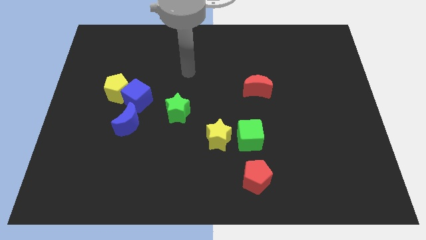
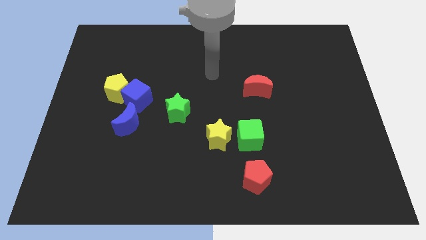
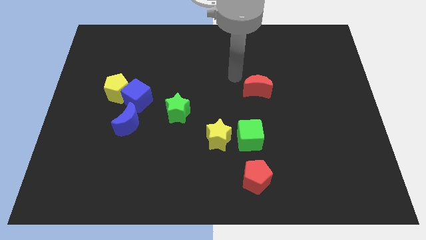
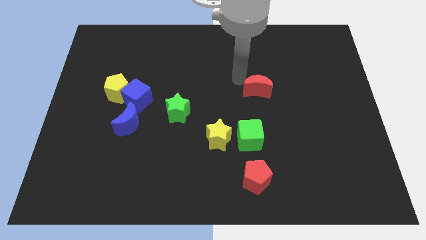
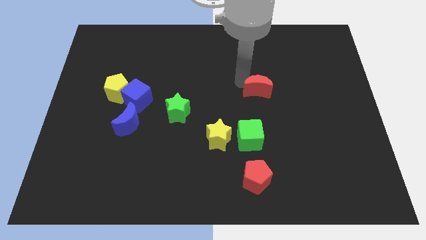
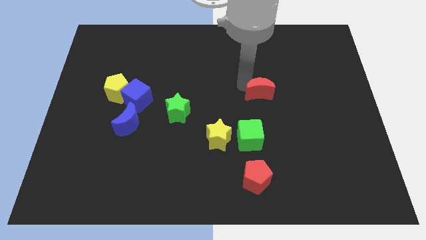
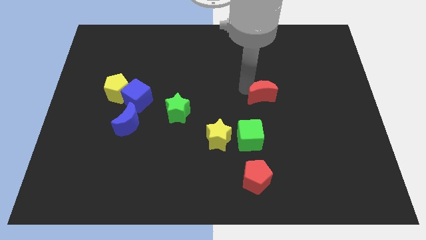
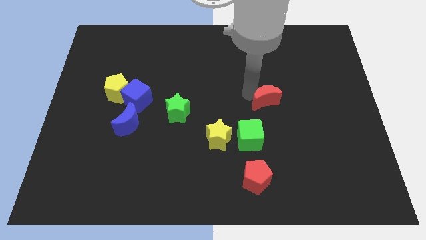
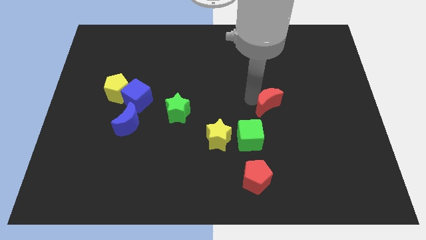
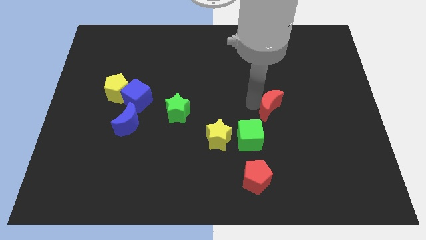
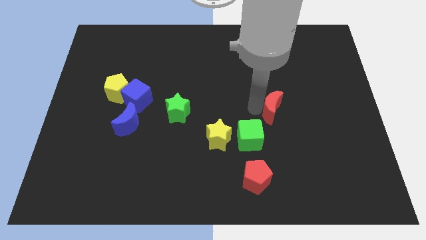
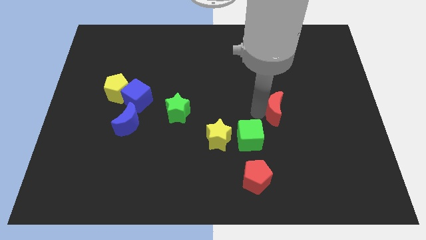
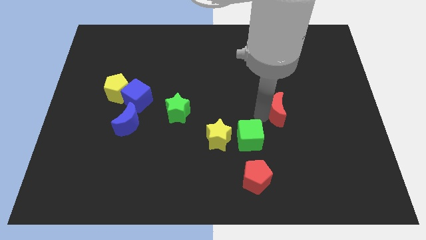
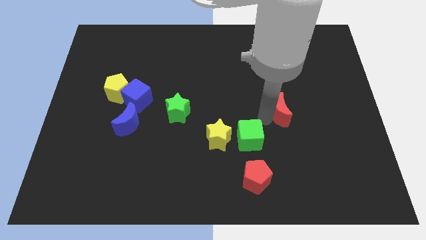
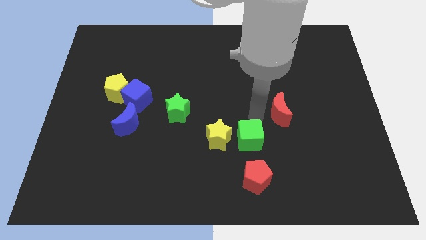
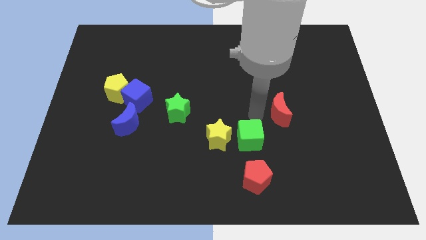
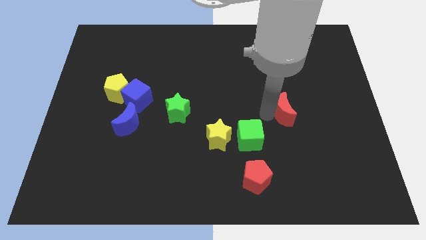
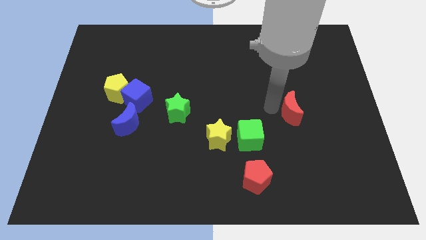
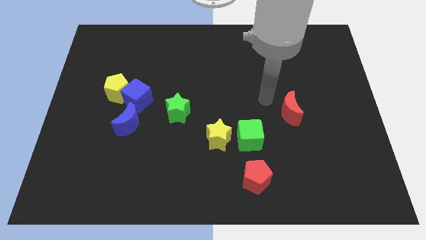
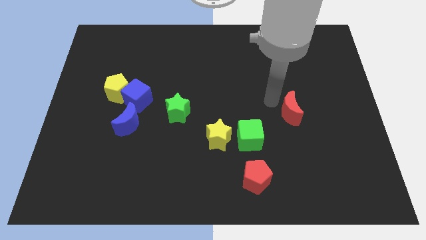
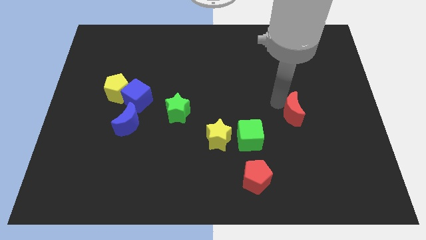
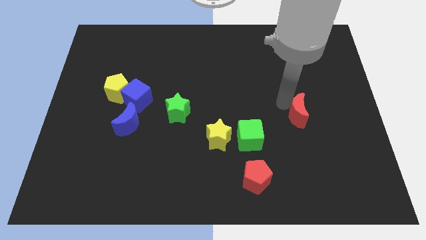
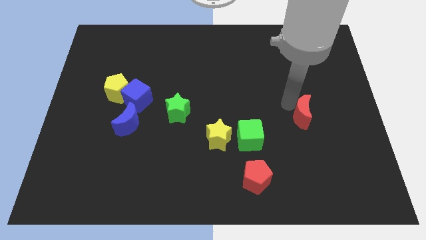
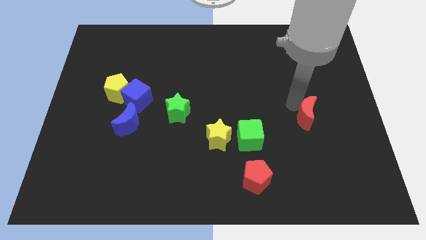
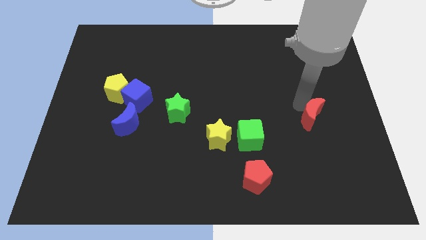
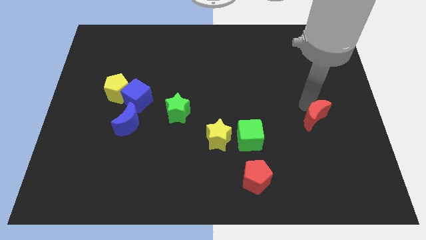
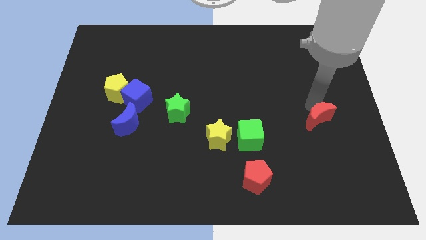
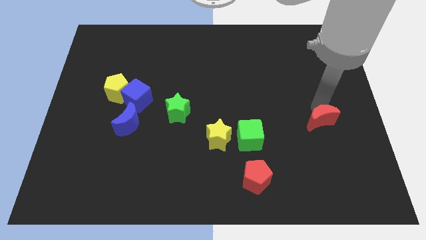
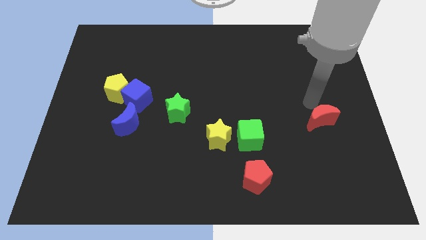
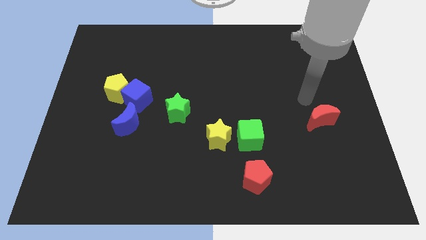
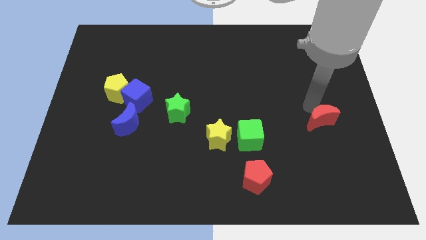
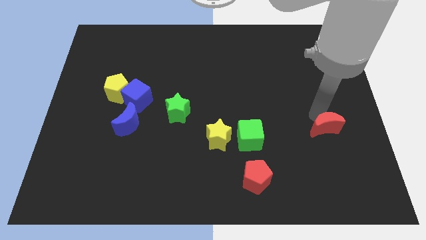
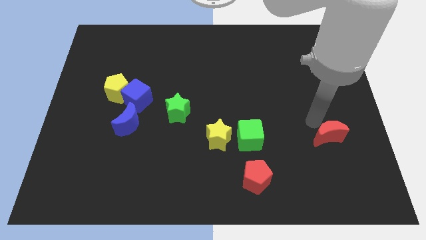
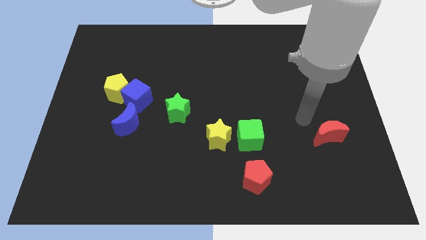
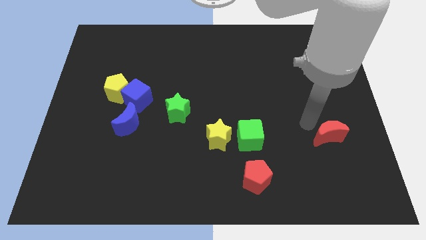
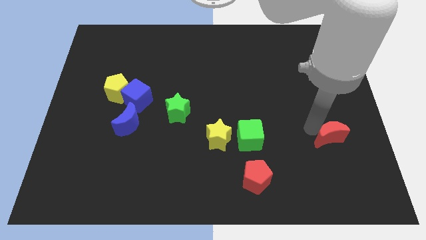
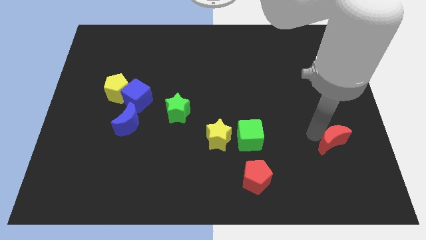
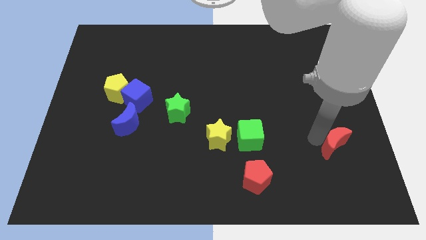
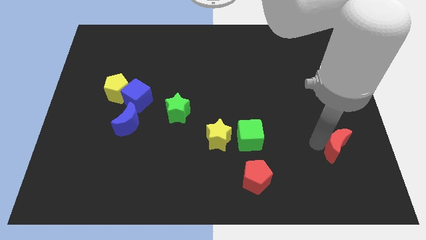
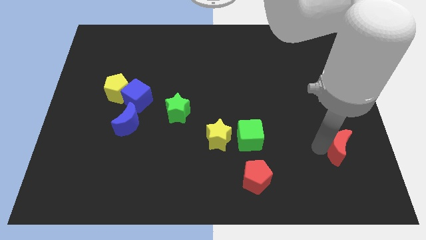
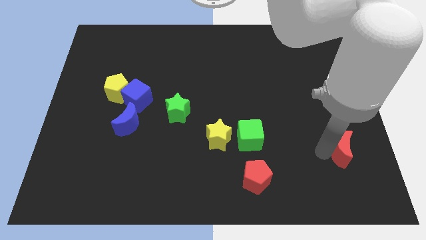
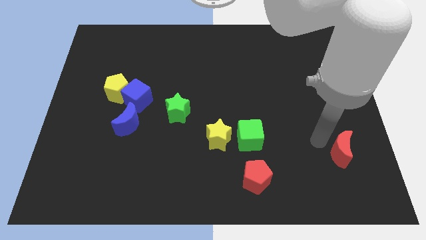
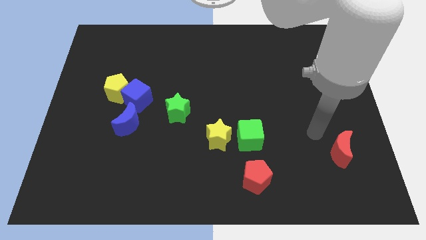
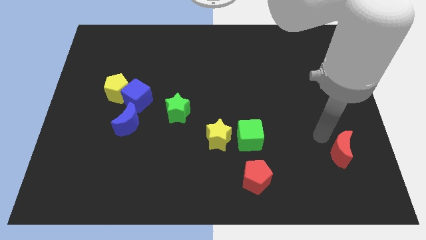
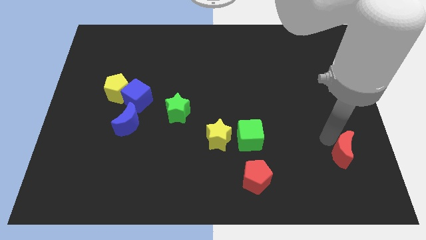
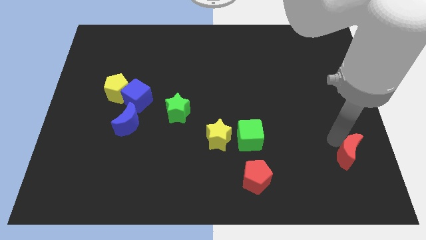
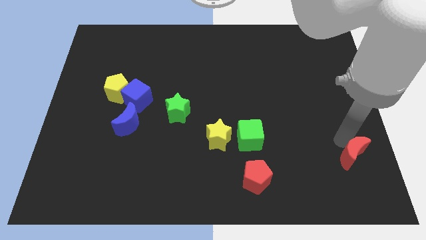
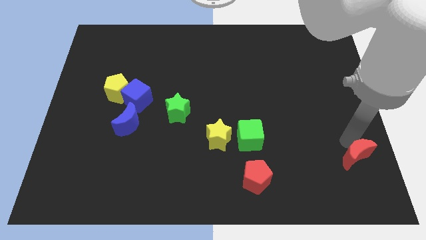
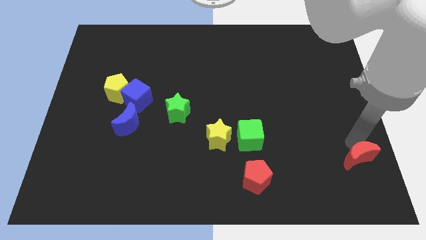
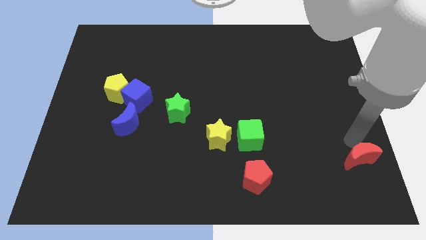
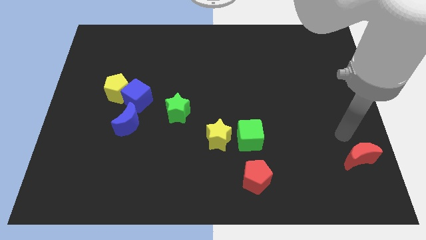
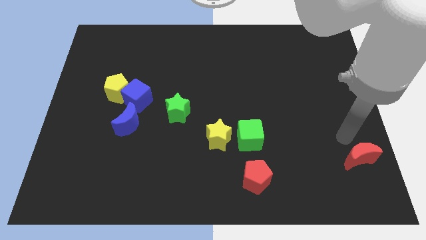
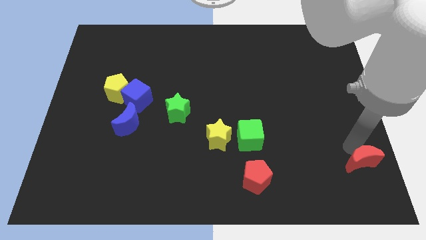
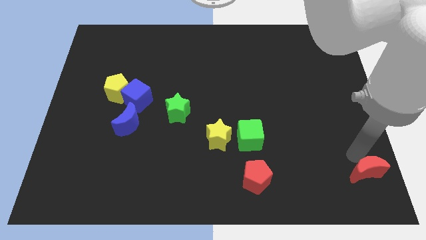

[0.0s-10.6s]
slide the red moon to the bottom right
